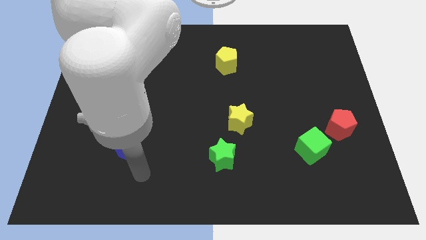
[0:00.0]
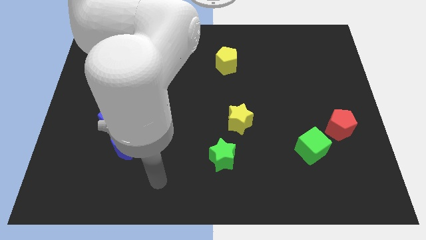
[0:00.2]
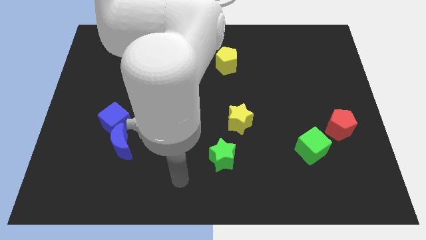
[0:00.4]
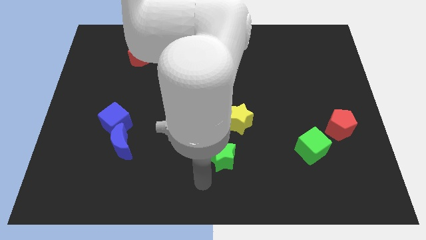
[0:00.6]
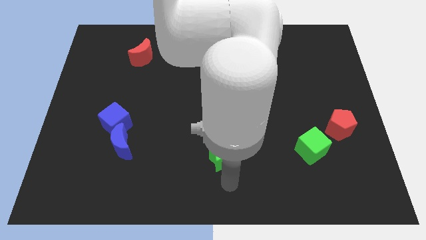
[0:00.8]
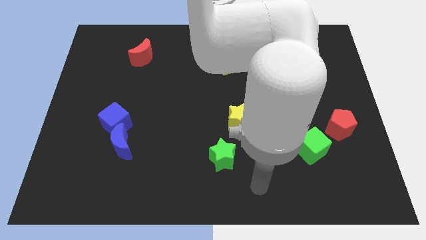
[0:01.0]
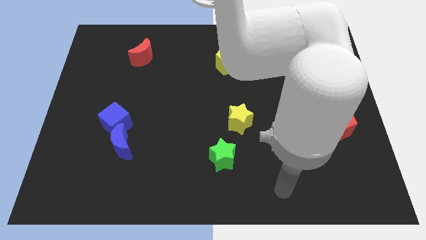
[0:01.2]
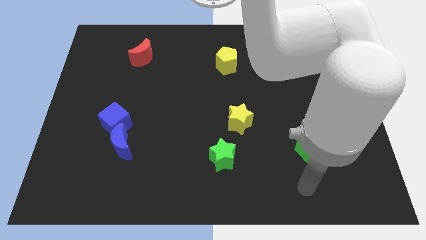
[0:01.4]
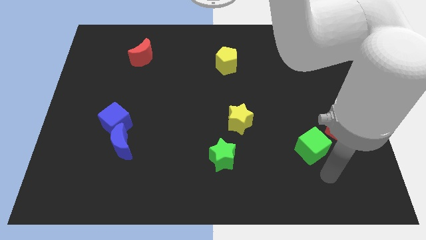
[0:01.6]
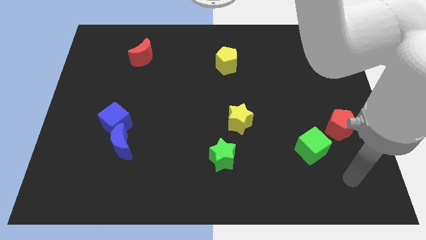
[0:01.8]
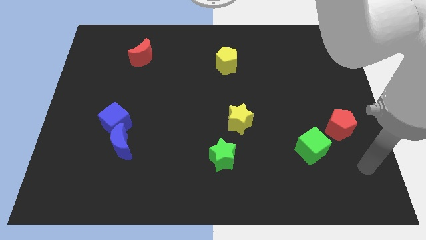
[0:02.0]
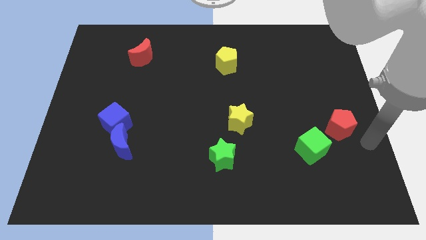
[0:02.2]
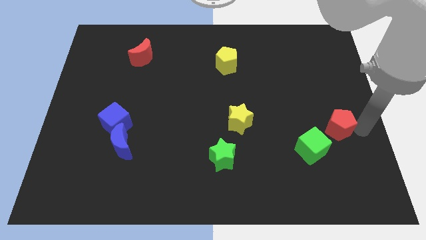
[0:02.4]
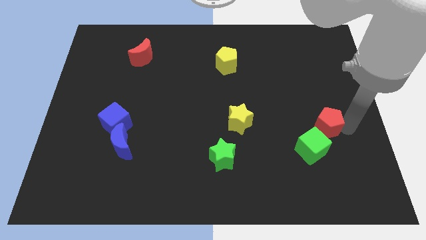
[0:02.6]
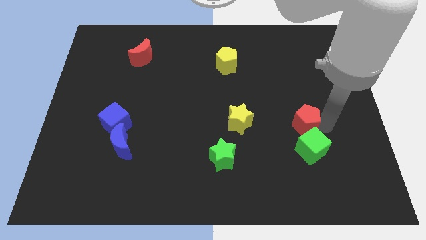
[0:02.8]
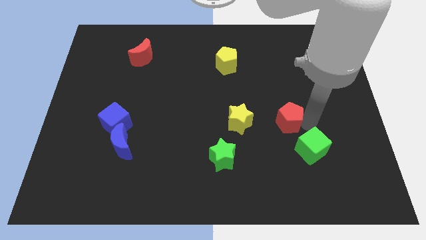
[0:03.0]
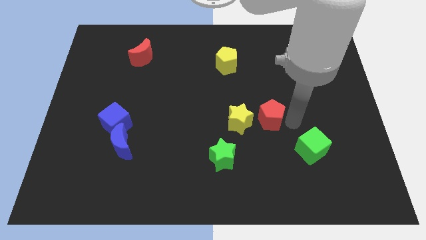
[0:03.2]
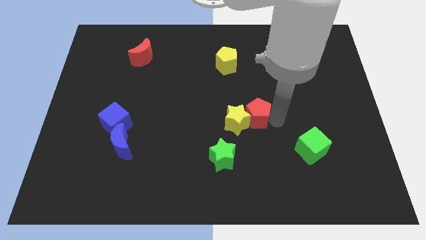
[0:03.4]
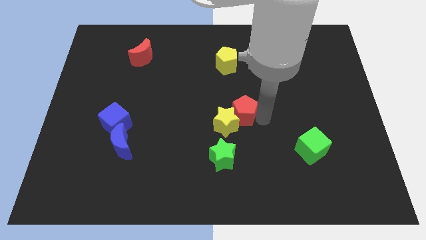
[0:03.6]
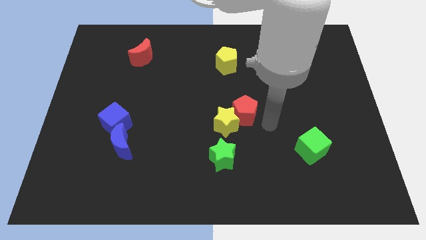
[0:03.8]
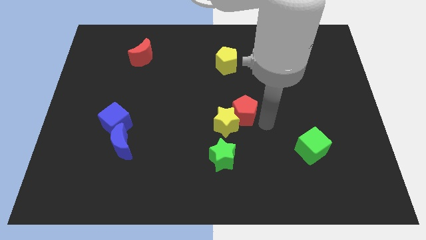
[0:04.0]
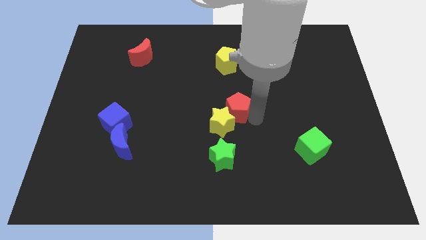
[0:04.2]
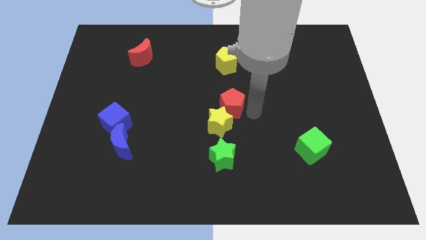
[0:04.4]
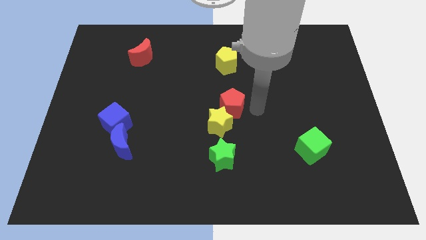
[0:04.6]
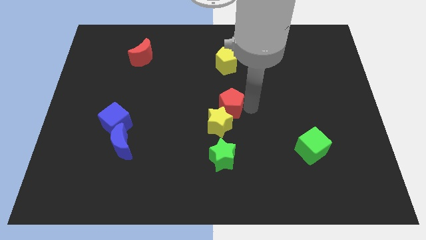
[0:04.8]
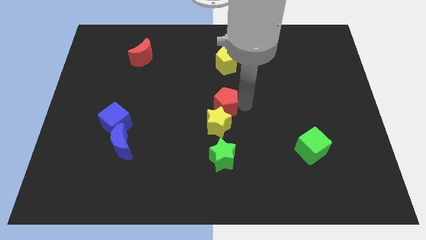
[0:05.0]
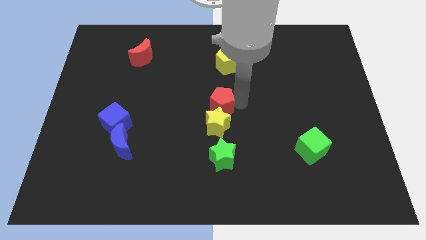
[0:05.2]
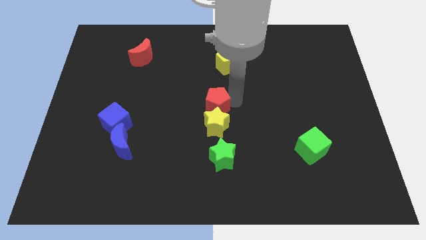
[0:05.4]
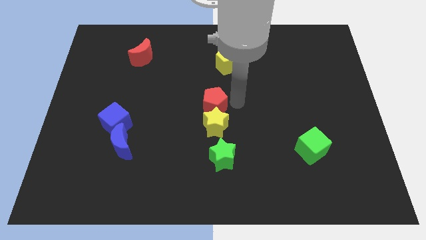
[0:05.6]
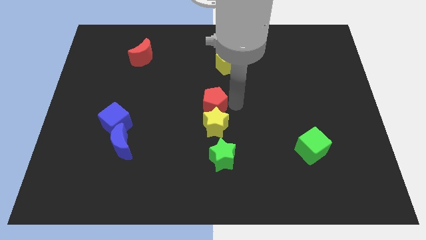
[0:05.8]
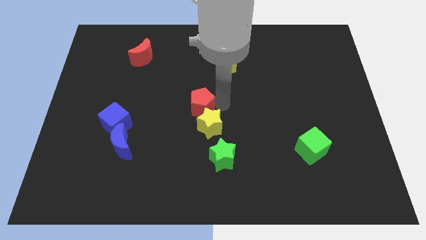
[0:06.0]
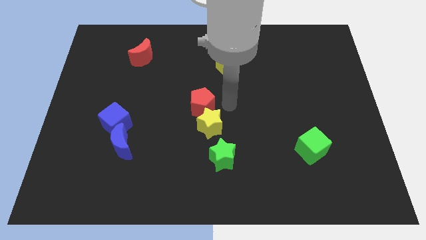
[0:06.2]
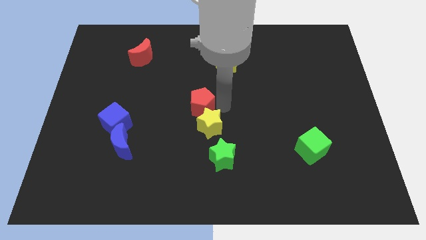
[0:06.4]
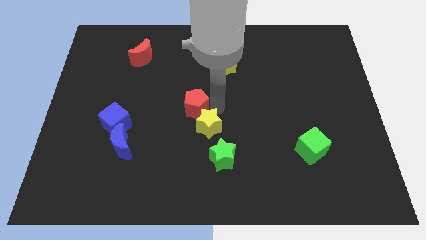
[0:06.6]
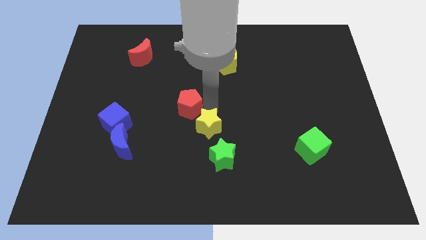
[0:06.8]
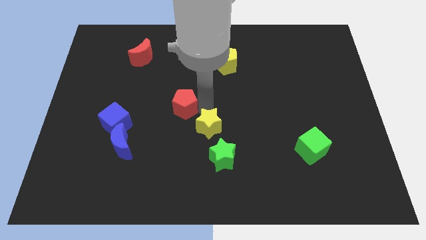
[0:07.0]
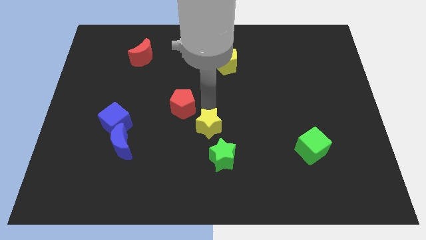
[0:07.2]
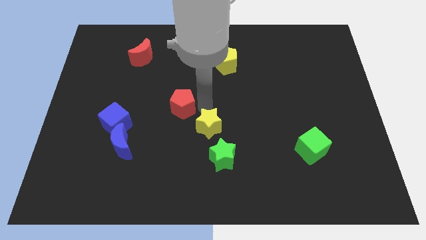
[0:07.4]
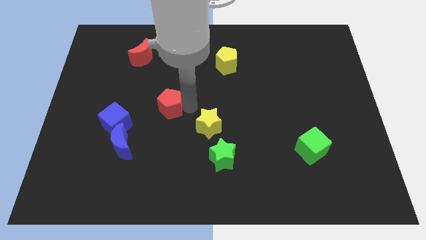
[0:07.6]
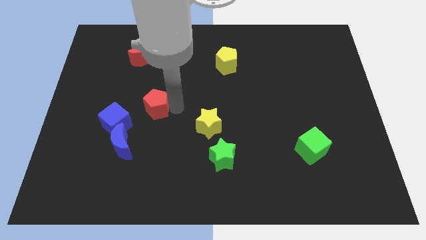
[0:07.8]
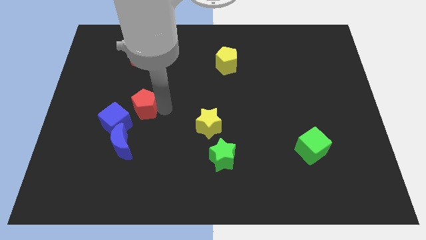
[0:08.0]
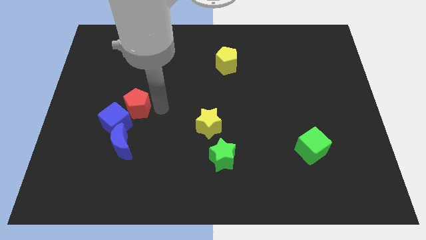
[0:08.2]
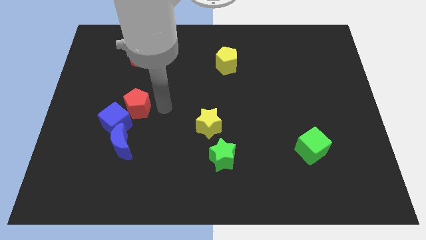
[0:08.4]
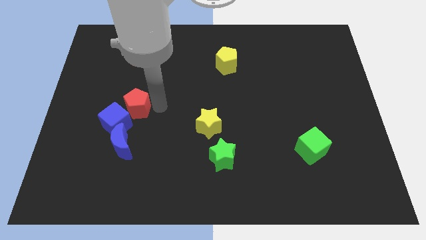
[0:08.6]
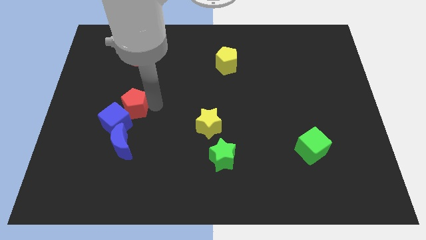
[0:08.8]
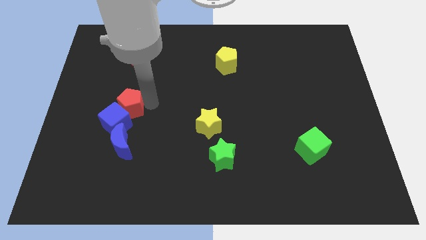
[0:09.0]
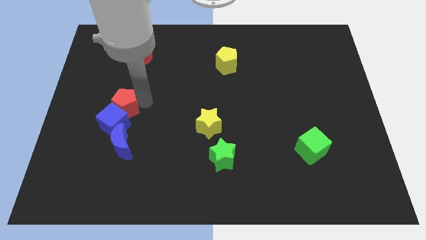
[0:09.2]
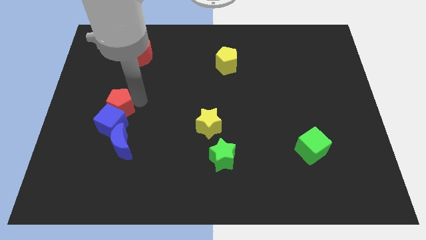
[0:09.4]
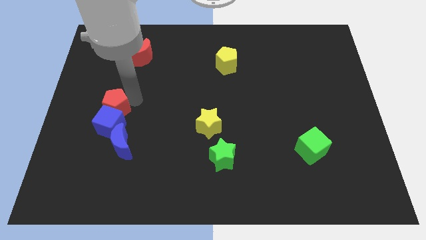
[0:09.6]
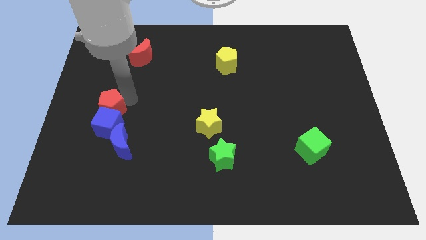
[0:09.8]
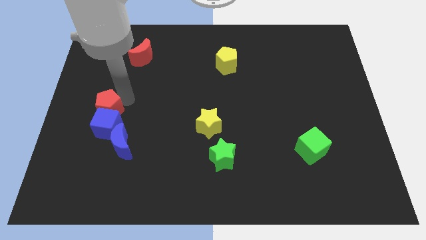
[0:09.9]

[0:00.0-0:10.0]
move the red pentagon to the top left of the blue moon

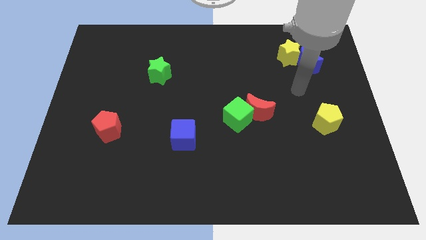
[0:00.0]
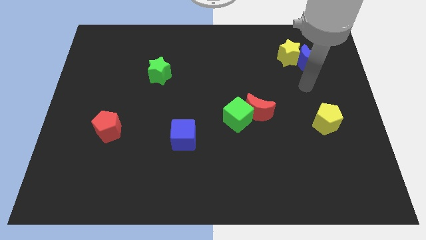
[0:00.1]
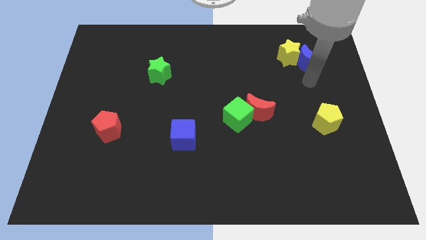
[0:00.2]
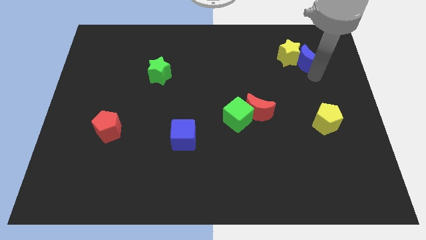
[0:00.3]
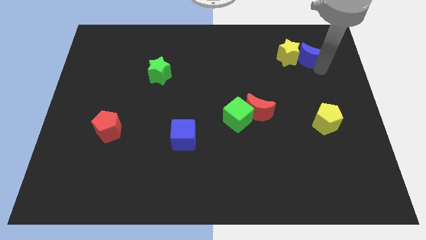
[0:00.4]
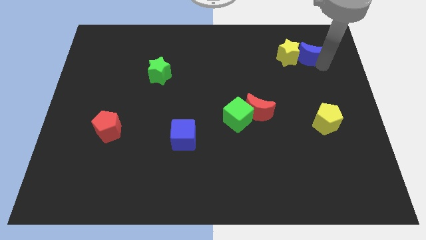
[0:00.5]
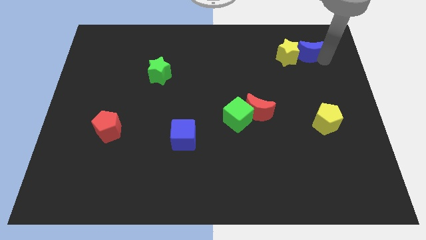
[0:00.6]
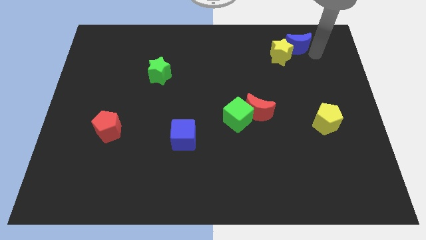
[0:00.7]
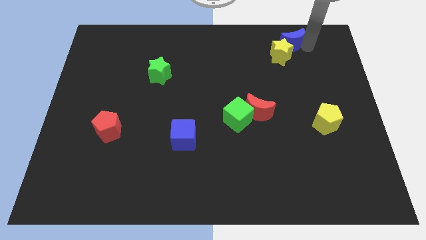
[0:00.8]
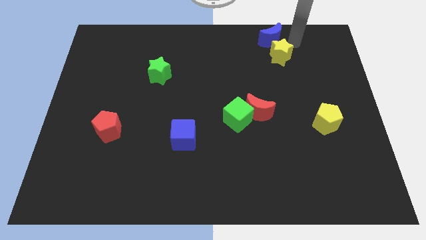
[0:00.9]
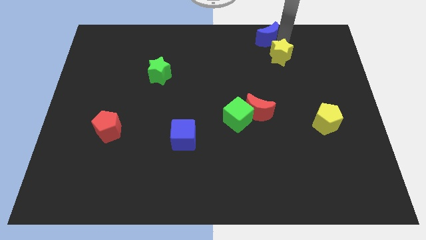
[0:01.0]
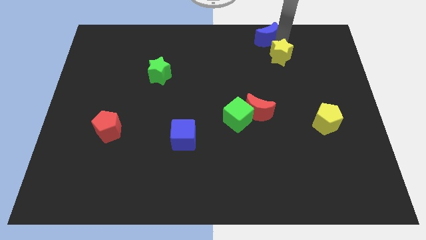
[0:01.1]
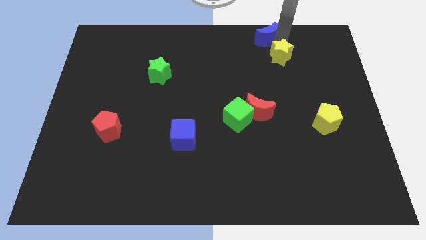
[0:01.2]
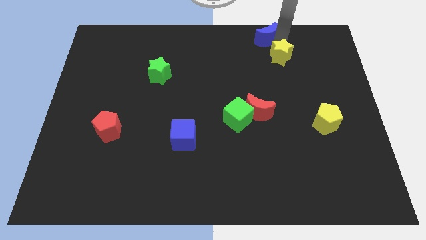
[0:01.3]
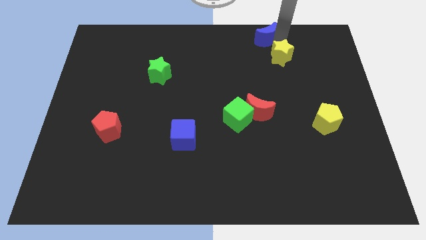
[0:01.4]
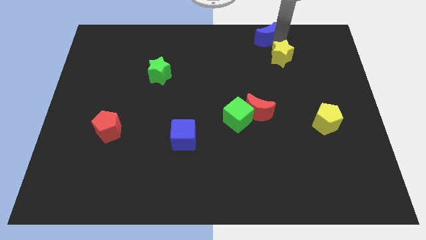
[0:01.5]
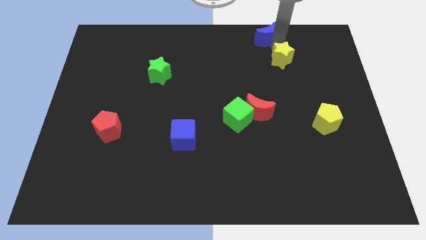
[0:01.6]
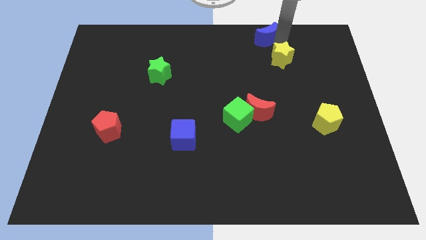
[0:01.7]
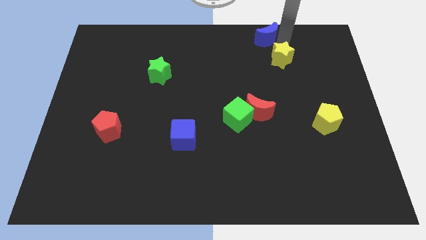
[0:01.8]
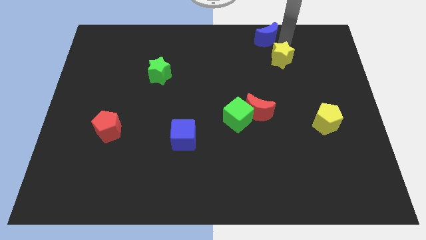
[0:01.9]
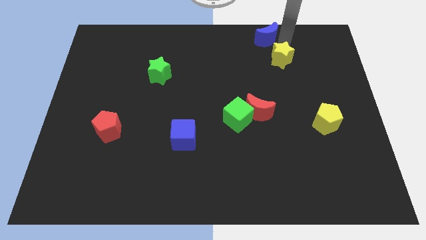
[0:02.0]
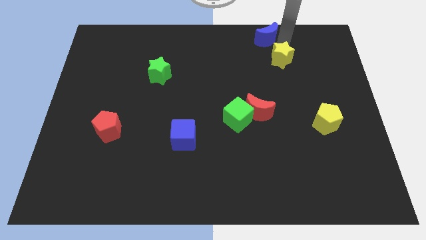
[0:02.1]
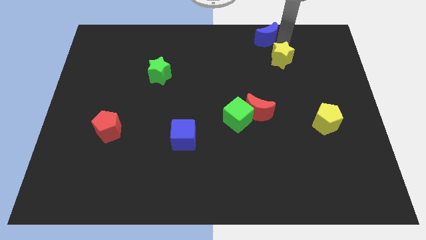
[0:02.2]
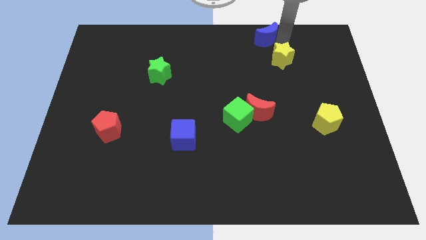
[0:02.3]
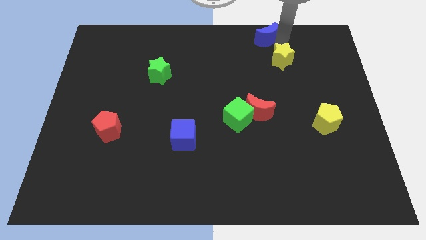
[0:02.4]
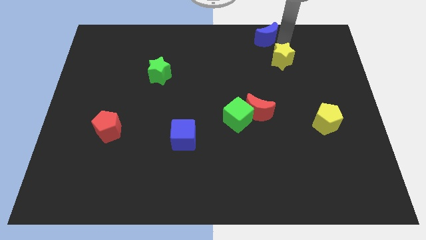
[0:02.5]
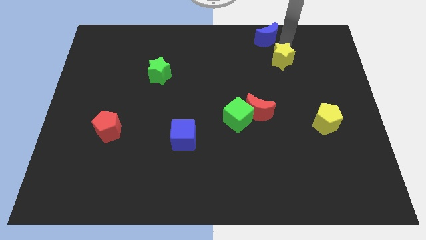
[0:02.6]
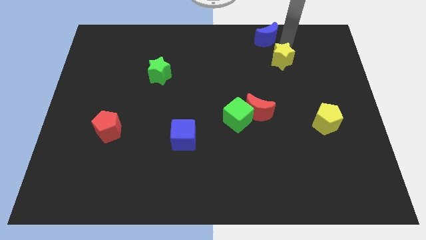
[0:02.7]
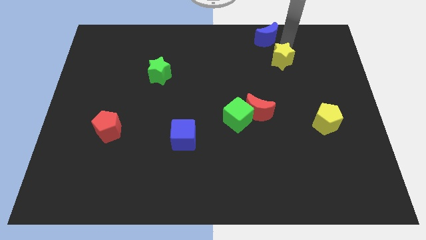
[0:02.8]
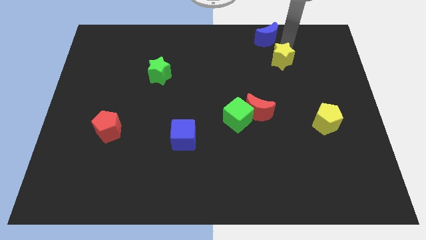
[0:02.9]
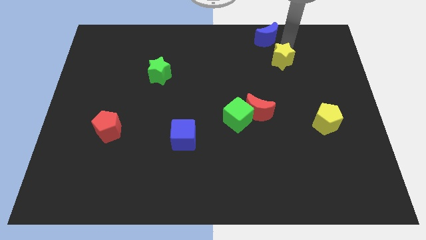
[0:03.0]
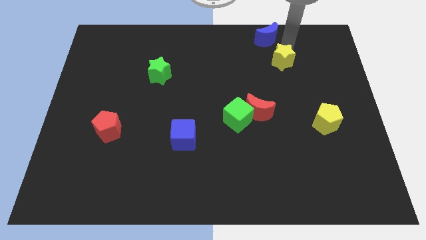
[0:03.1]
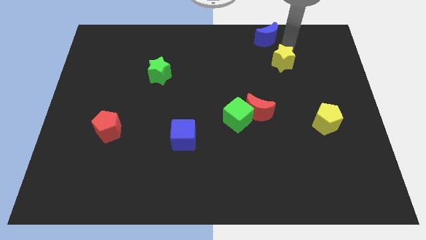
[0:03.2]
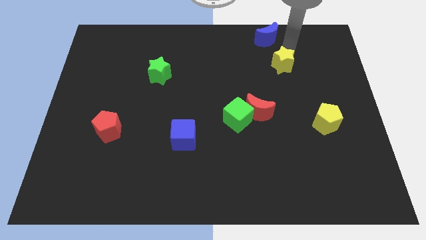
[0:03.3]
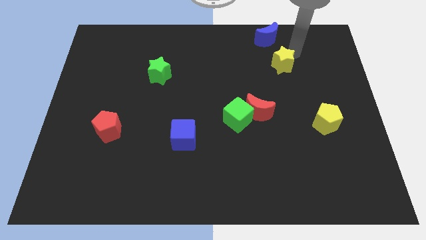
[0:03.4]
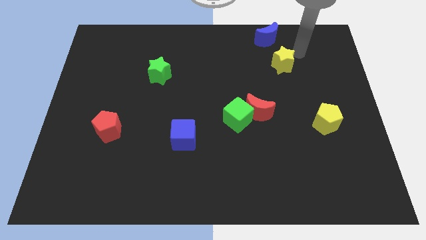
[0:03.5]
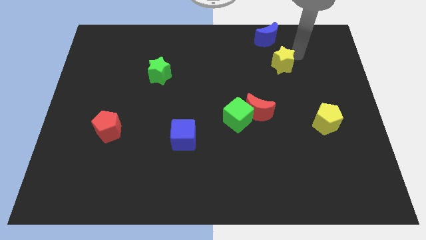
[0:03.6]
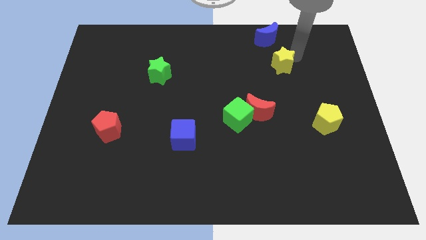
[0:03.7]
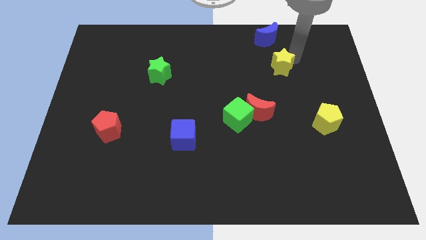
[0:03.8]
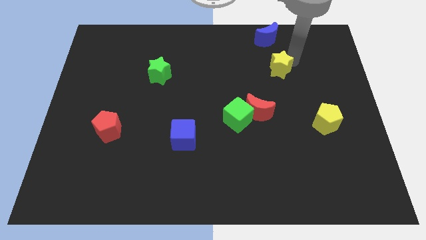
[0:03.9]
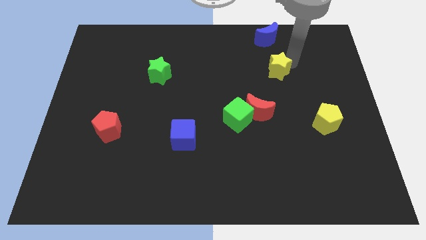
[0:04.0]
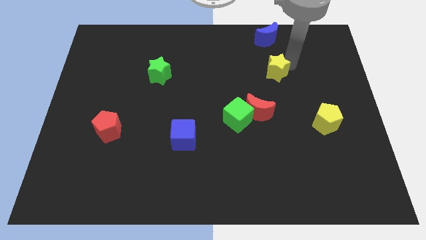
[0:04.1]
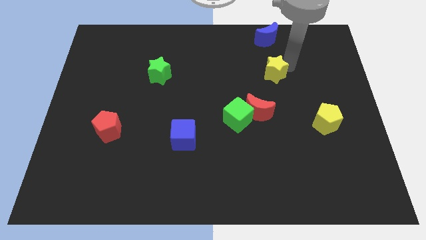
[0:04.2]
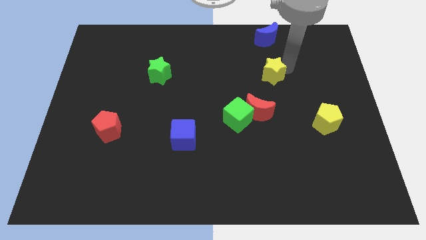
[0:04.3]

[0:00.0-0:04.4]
push the yellow star above the red moon
